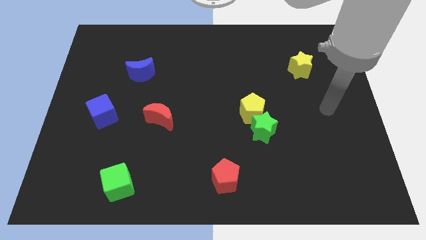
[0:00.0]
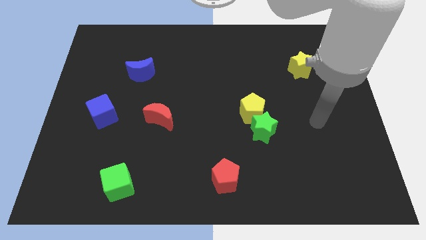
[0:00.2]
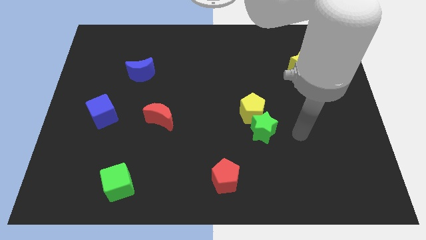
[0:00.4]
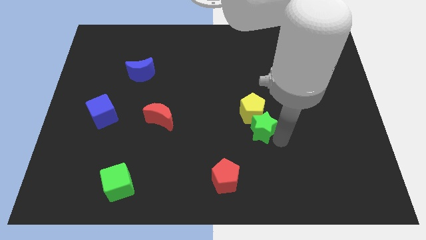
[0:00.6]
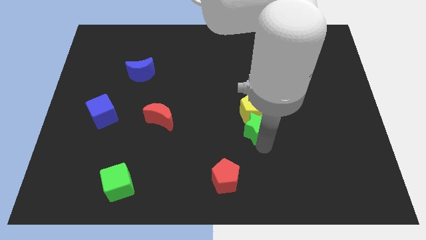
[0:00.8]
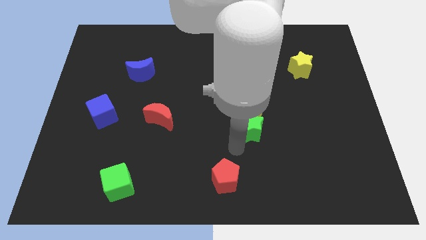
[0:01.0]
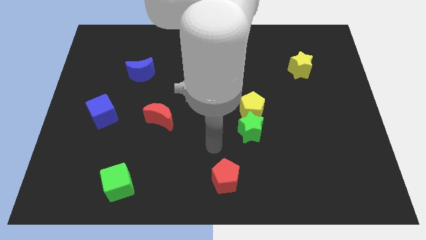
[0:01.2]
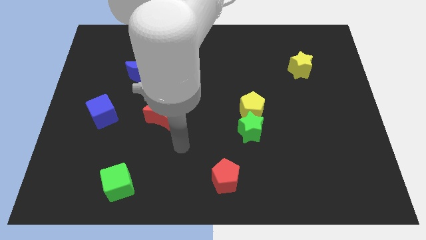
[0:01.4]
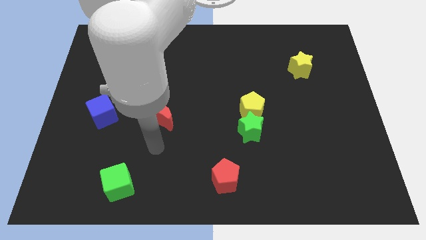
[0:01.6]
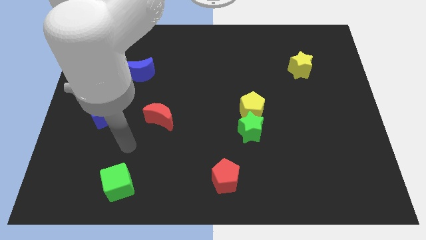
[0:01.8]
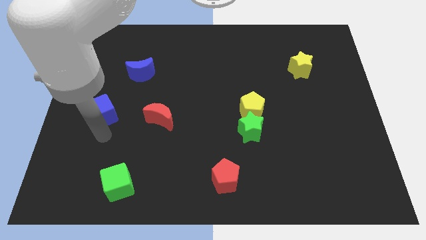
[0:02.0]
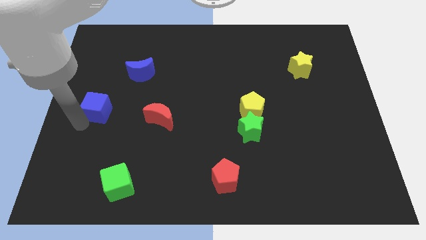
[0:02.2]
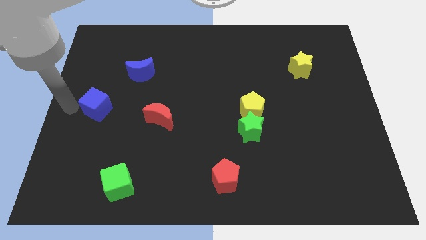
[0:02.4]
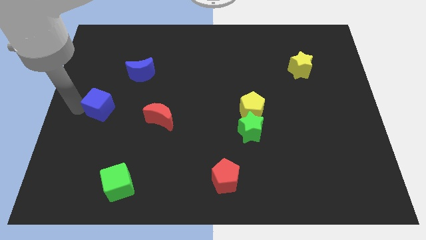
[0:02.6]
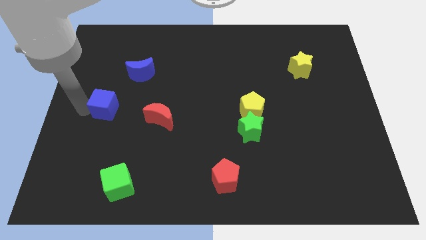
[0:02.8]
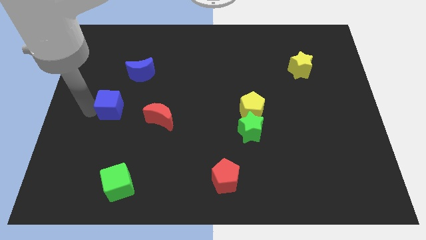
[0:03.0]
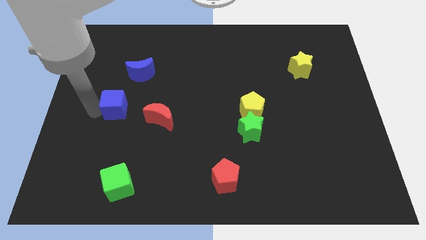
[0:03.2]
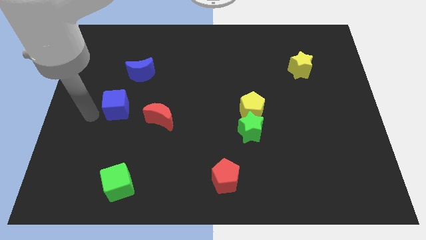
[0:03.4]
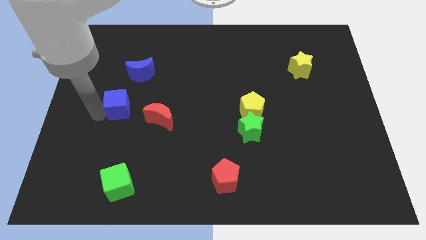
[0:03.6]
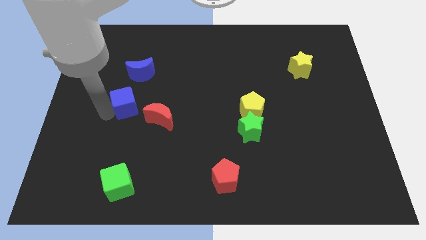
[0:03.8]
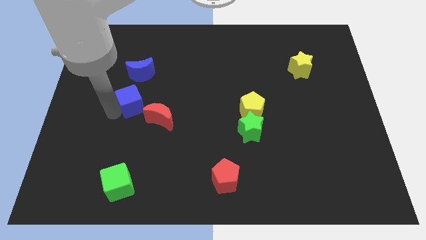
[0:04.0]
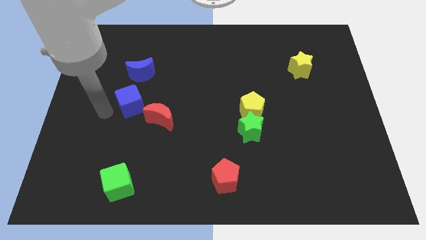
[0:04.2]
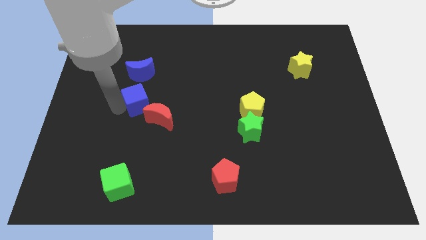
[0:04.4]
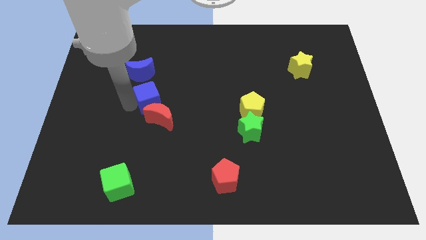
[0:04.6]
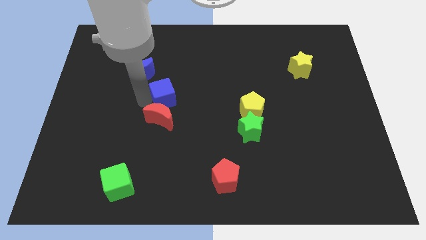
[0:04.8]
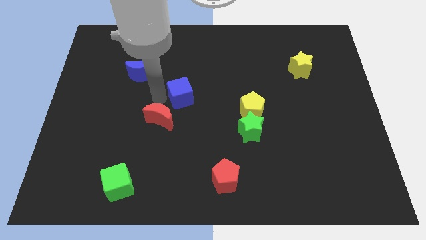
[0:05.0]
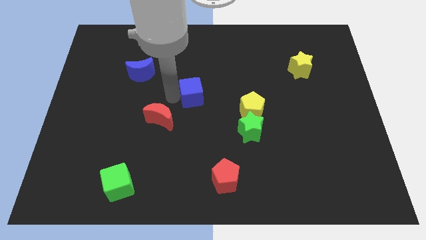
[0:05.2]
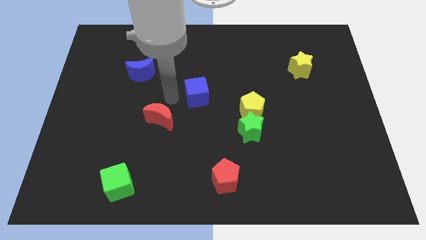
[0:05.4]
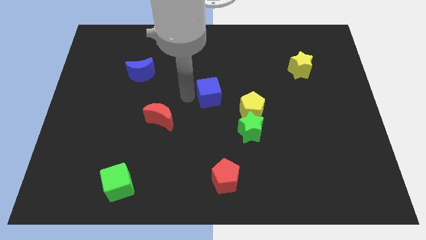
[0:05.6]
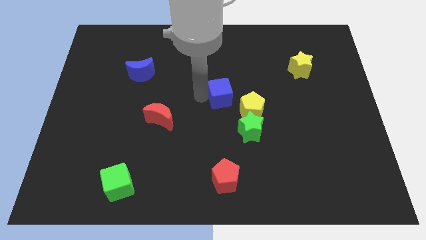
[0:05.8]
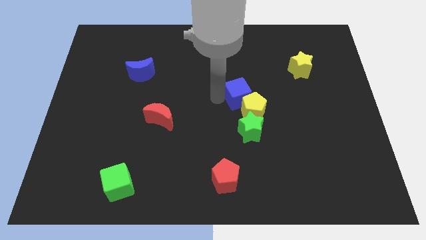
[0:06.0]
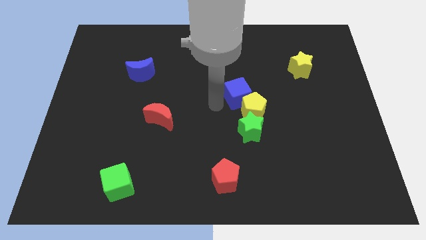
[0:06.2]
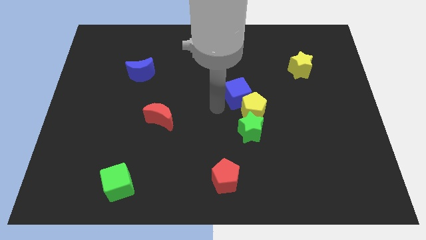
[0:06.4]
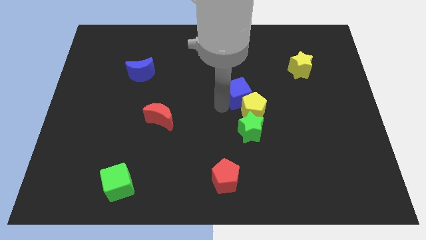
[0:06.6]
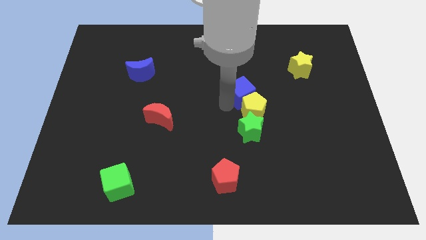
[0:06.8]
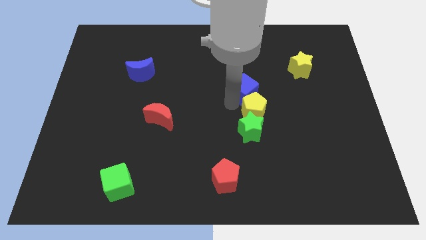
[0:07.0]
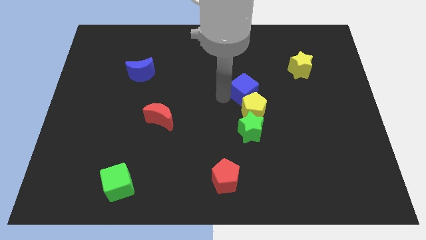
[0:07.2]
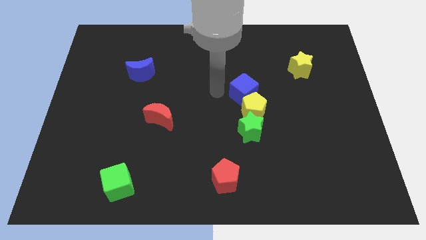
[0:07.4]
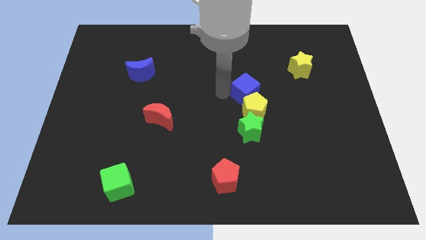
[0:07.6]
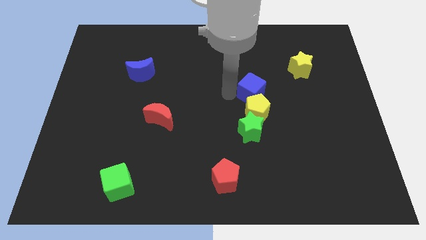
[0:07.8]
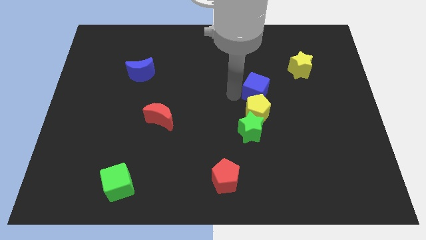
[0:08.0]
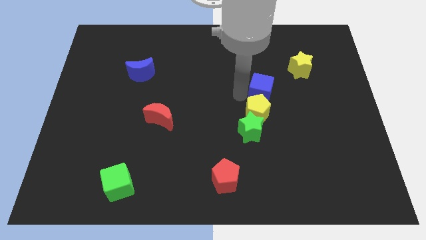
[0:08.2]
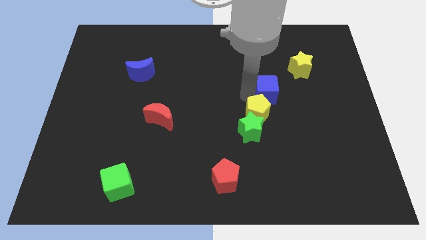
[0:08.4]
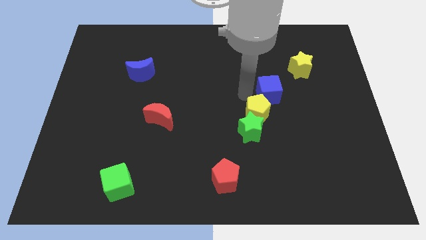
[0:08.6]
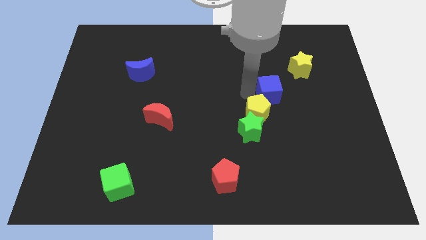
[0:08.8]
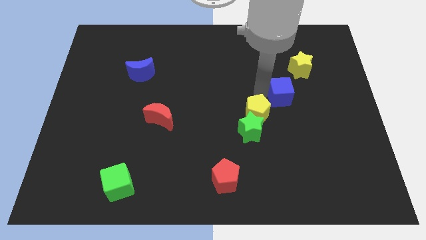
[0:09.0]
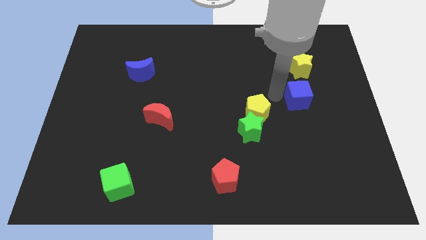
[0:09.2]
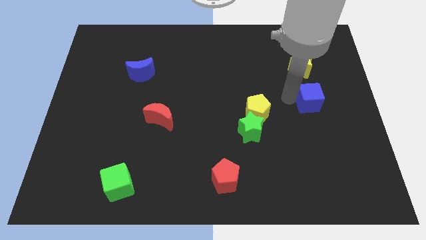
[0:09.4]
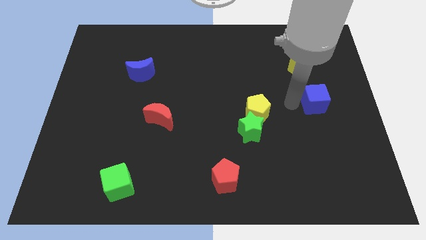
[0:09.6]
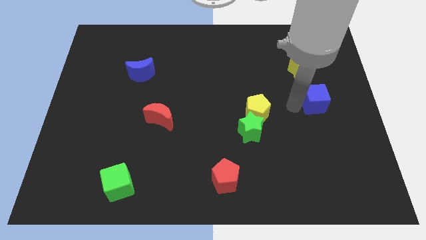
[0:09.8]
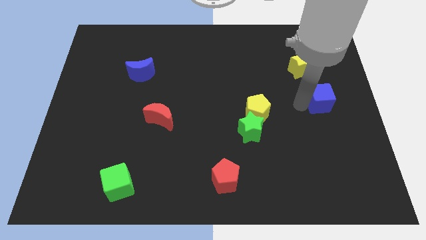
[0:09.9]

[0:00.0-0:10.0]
push the blue cube to the right side of the board

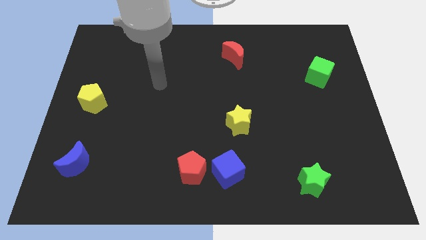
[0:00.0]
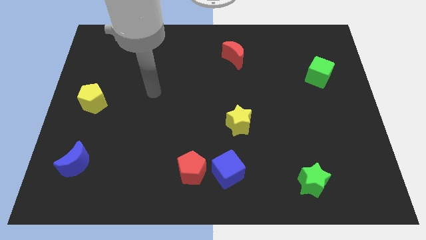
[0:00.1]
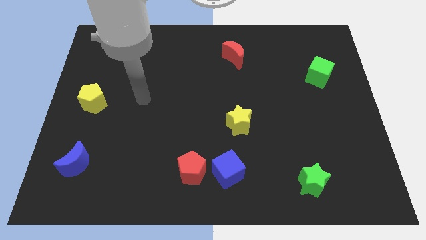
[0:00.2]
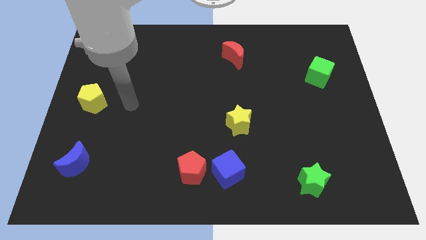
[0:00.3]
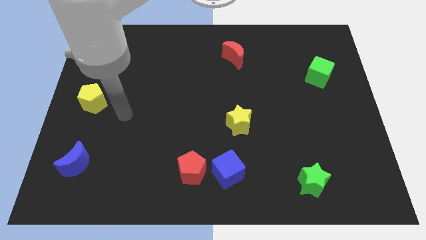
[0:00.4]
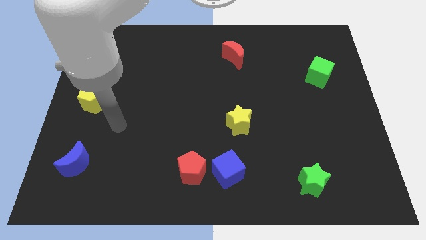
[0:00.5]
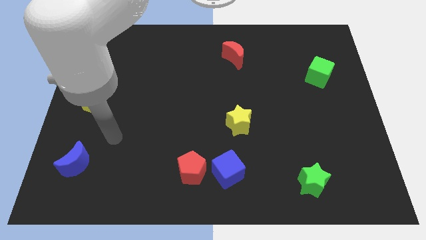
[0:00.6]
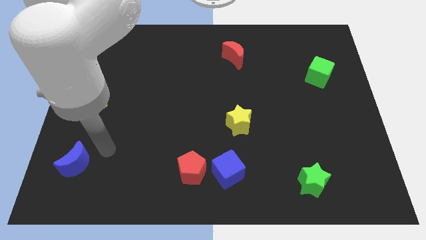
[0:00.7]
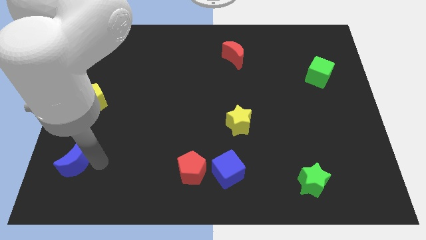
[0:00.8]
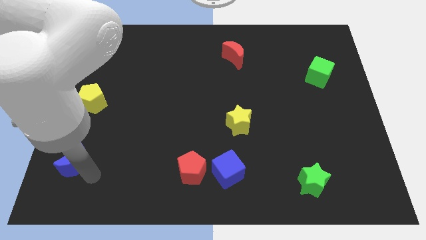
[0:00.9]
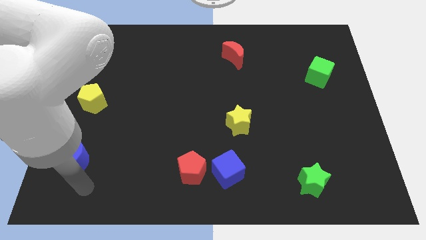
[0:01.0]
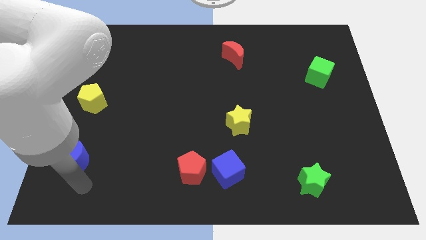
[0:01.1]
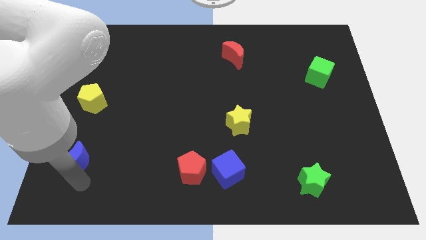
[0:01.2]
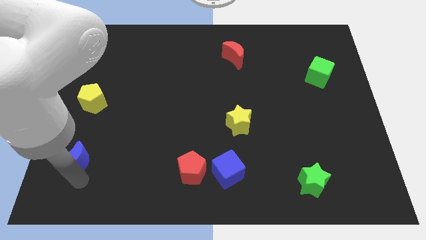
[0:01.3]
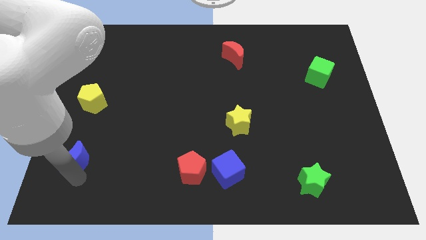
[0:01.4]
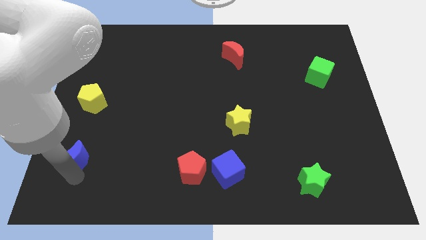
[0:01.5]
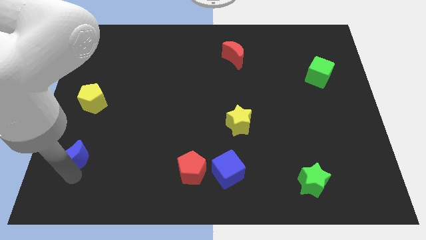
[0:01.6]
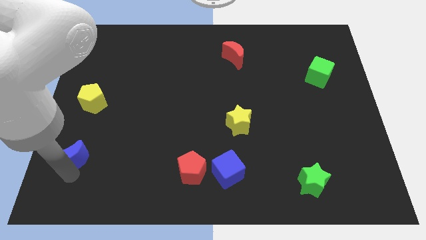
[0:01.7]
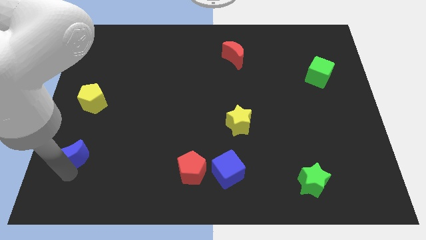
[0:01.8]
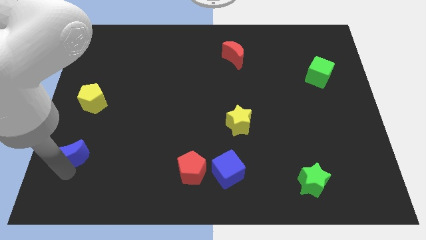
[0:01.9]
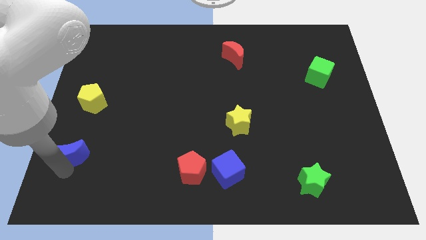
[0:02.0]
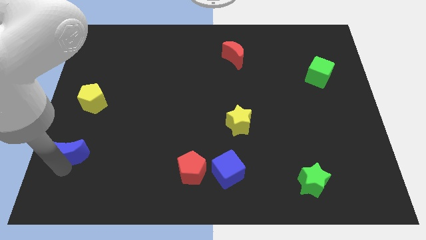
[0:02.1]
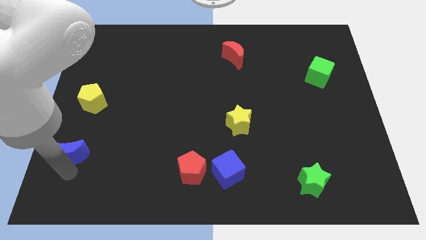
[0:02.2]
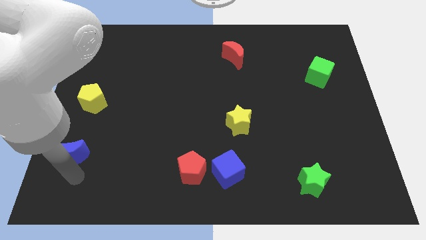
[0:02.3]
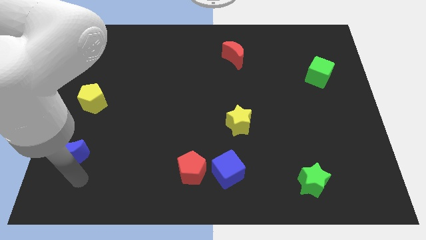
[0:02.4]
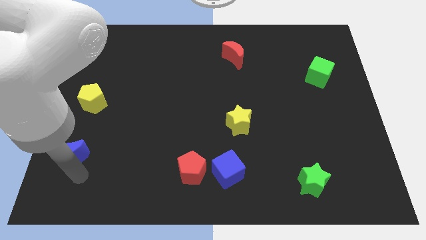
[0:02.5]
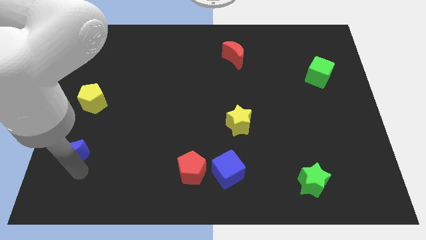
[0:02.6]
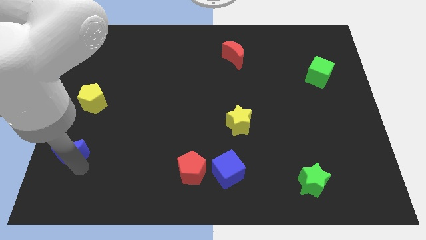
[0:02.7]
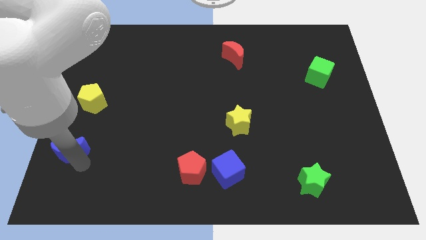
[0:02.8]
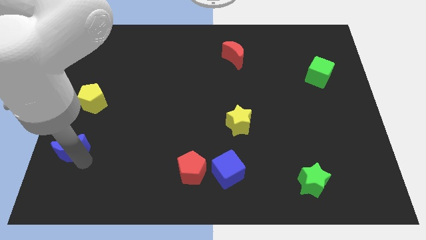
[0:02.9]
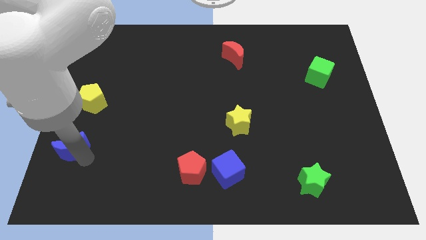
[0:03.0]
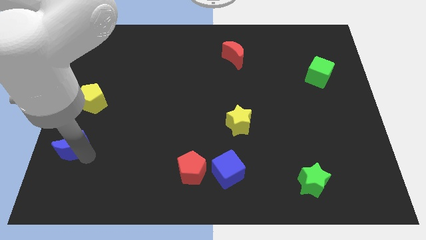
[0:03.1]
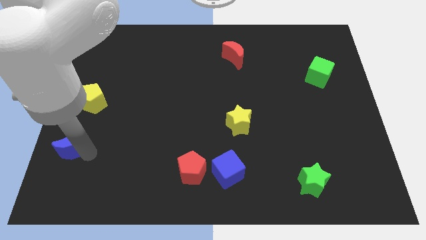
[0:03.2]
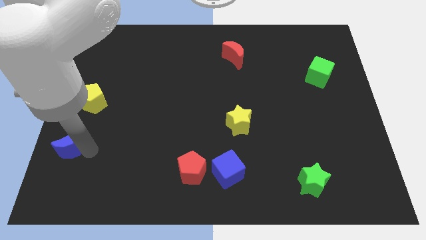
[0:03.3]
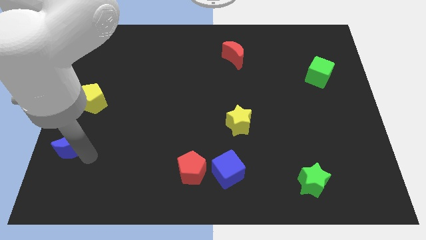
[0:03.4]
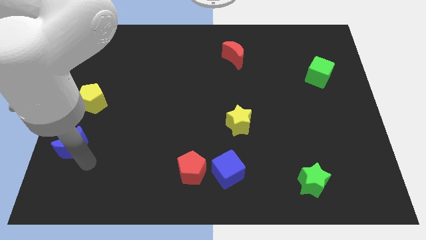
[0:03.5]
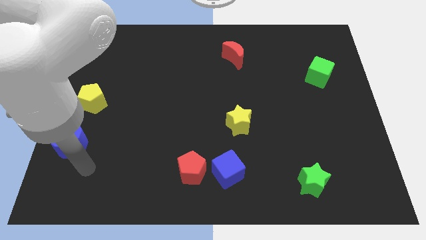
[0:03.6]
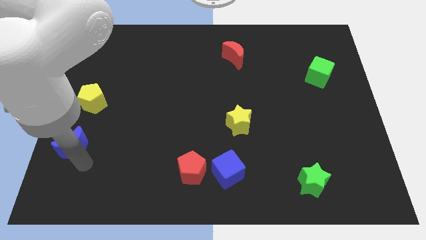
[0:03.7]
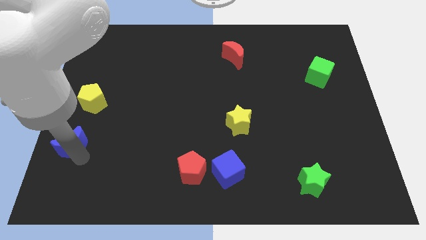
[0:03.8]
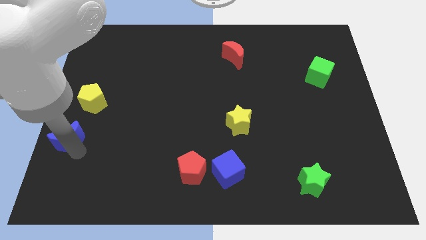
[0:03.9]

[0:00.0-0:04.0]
slide the blue moon to the left side
